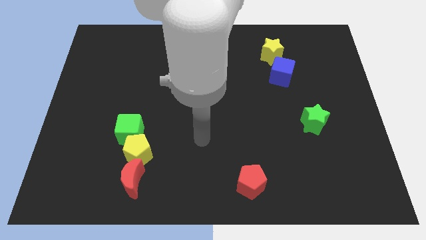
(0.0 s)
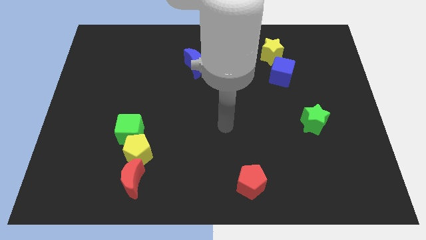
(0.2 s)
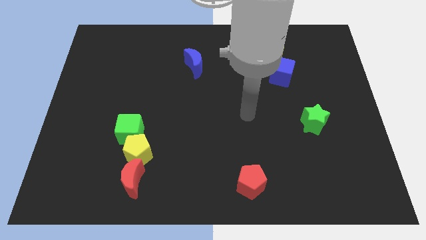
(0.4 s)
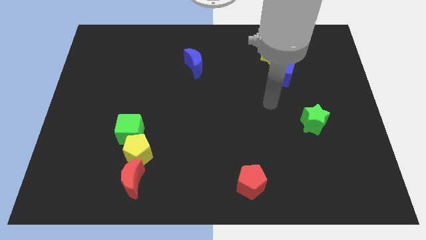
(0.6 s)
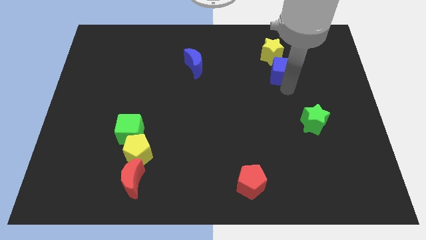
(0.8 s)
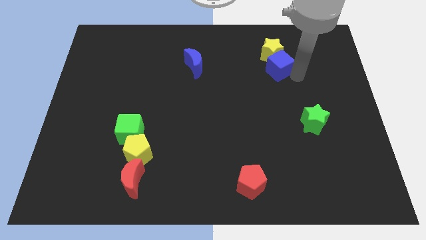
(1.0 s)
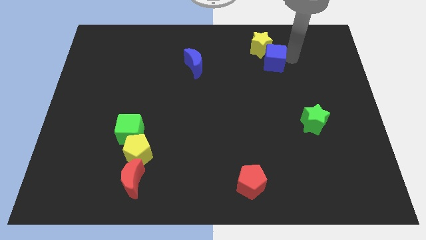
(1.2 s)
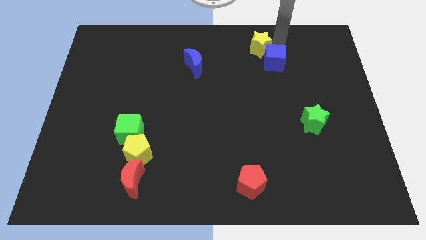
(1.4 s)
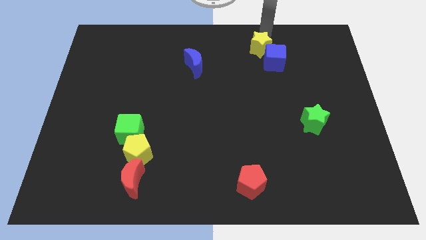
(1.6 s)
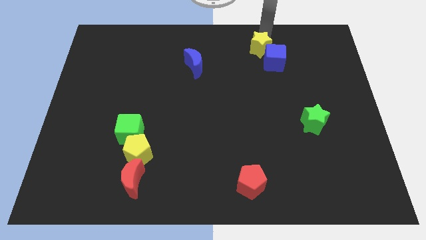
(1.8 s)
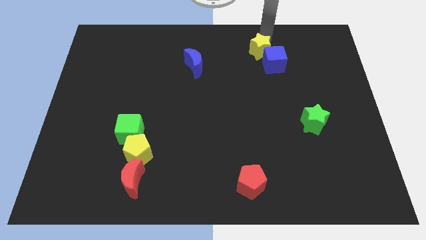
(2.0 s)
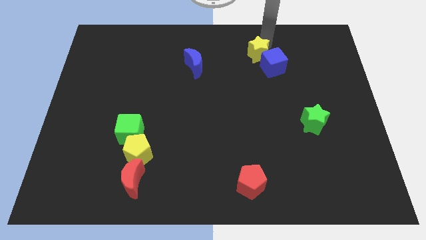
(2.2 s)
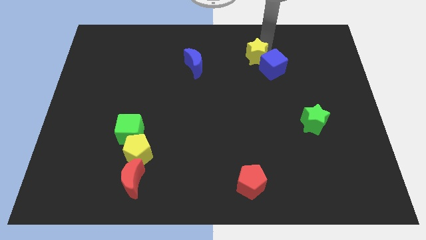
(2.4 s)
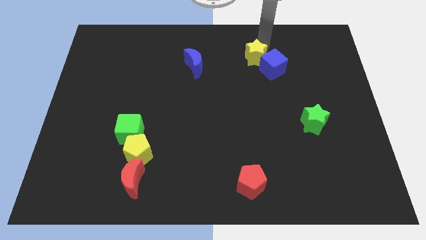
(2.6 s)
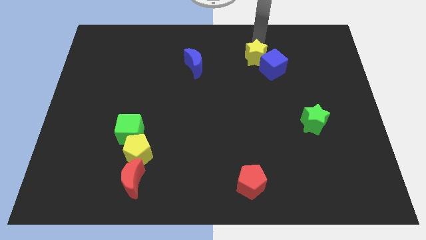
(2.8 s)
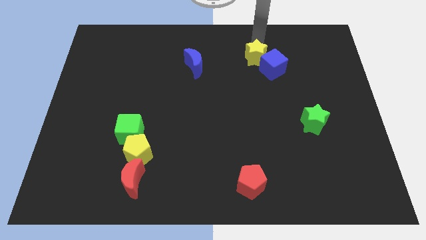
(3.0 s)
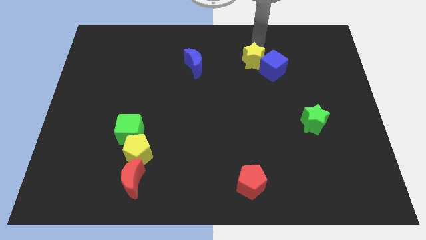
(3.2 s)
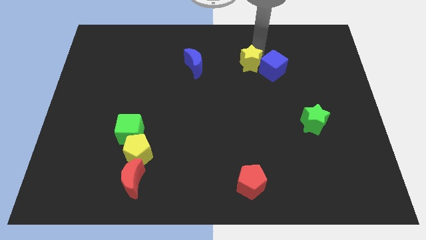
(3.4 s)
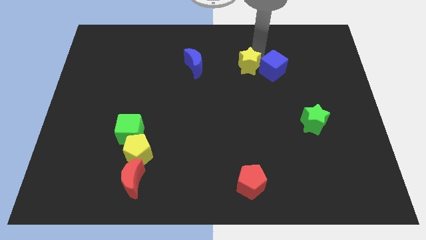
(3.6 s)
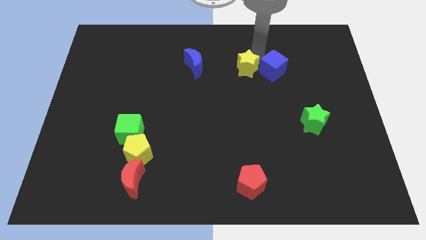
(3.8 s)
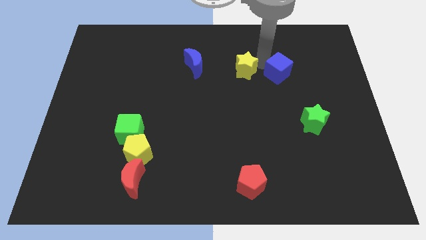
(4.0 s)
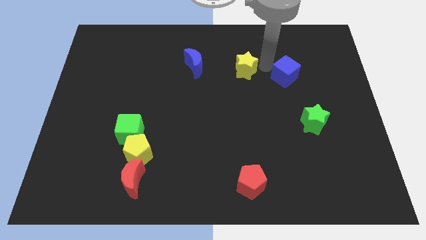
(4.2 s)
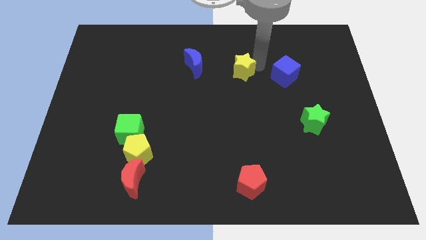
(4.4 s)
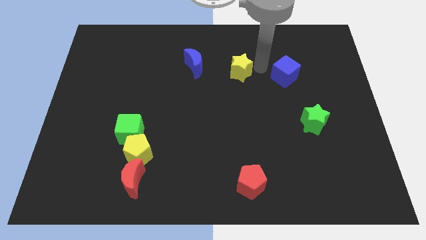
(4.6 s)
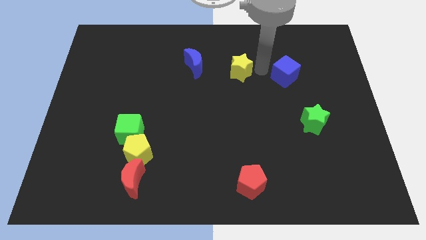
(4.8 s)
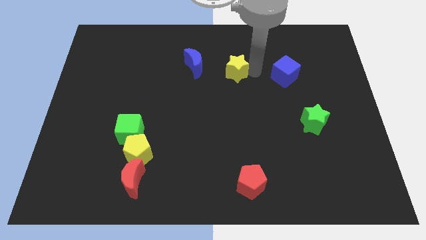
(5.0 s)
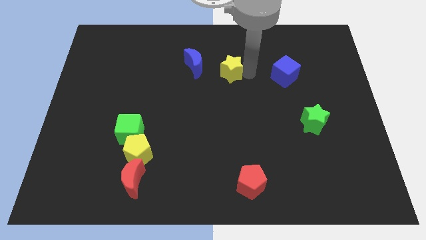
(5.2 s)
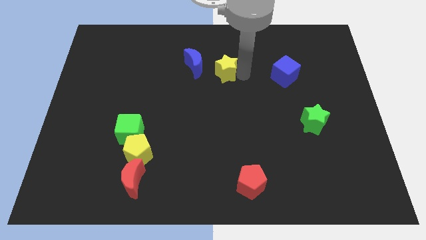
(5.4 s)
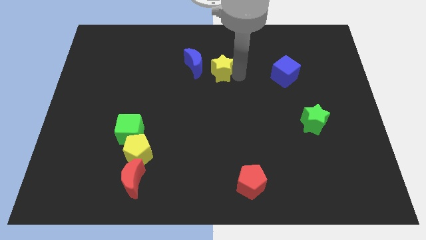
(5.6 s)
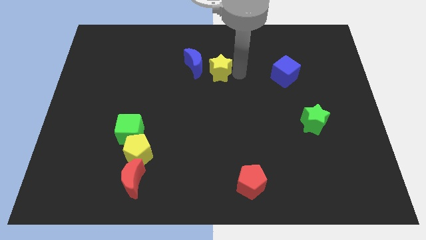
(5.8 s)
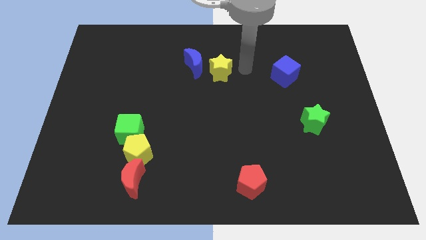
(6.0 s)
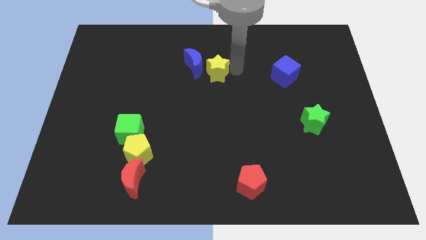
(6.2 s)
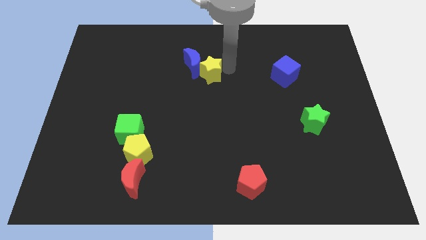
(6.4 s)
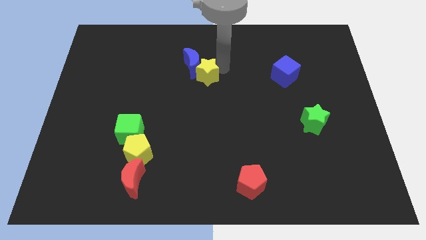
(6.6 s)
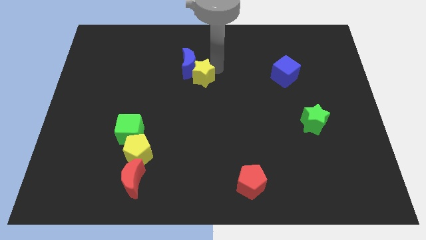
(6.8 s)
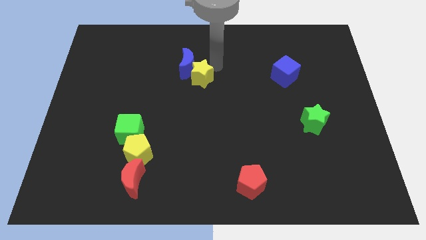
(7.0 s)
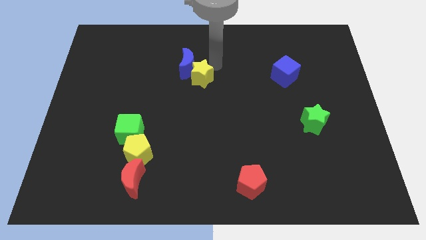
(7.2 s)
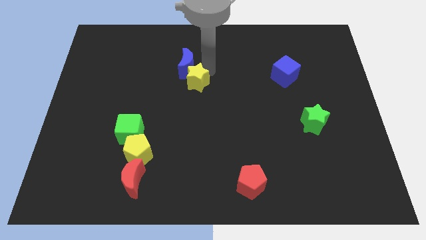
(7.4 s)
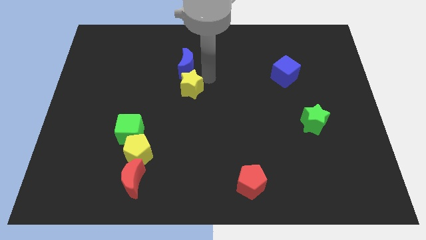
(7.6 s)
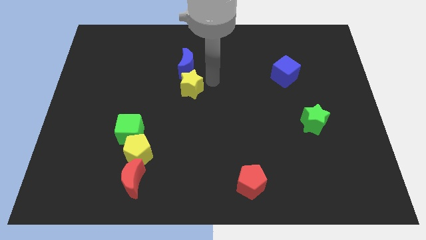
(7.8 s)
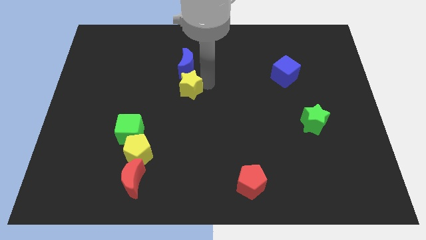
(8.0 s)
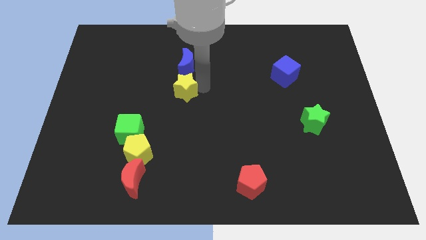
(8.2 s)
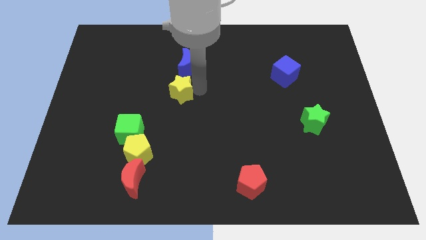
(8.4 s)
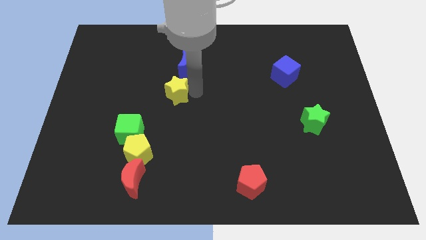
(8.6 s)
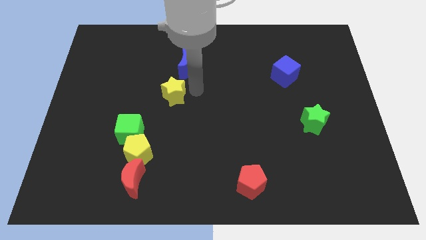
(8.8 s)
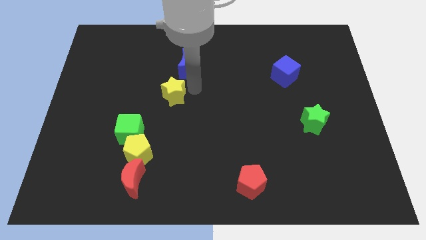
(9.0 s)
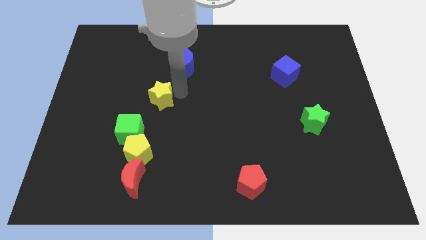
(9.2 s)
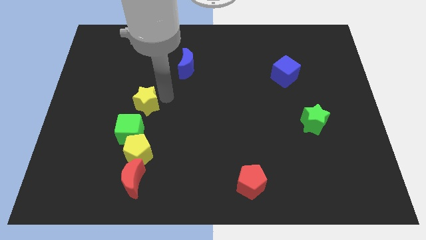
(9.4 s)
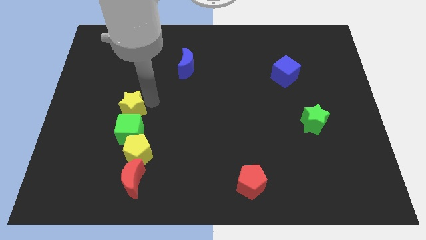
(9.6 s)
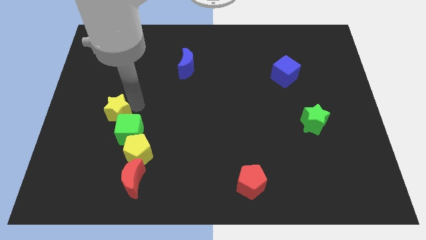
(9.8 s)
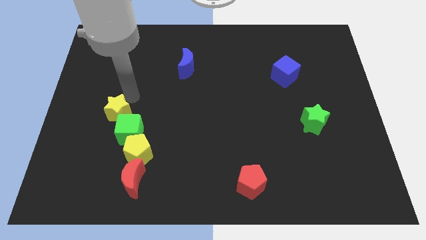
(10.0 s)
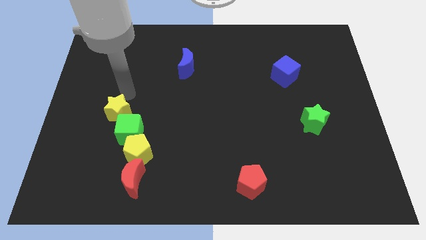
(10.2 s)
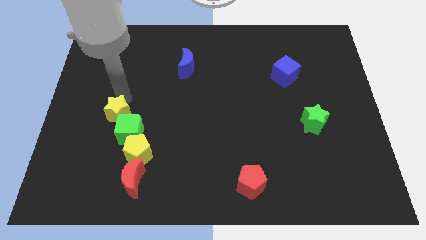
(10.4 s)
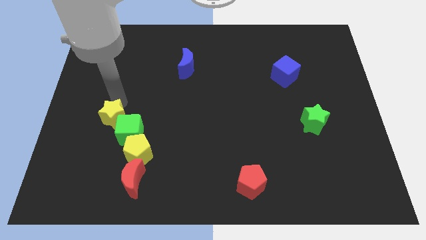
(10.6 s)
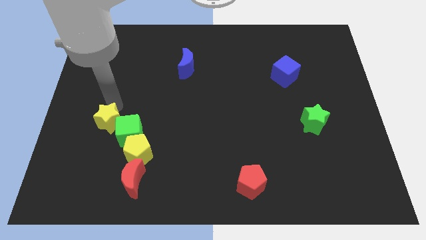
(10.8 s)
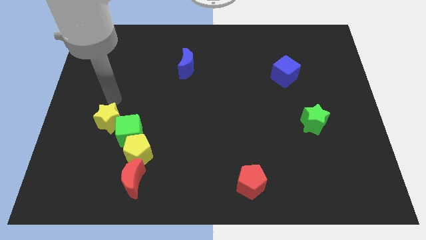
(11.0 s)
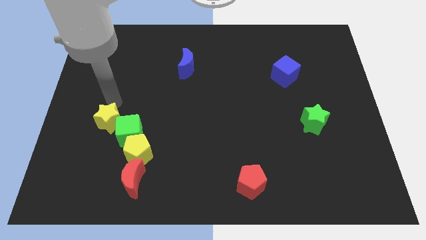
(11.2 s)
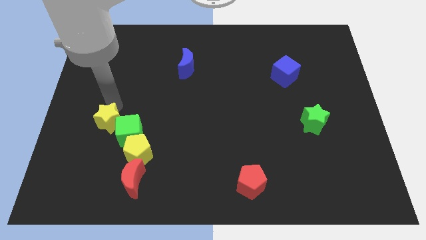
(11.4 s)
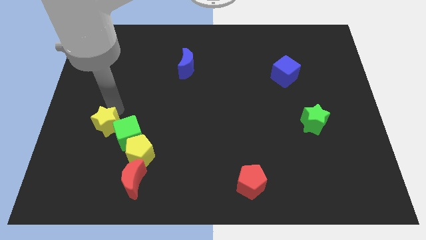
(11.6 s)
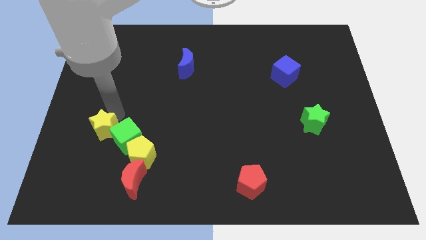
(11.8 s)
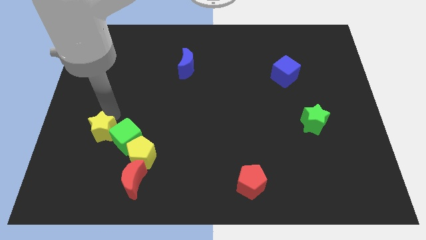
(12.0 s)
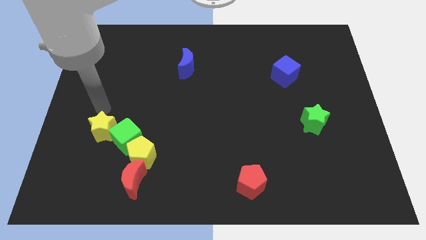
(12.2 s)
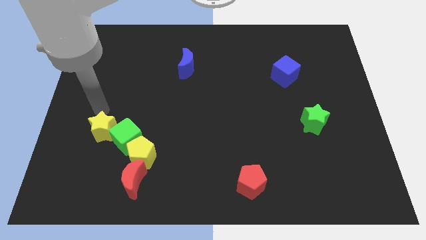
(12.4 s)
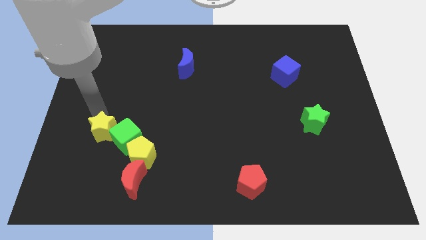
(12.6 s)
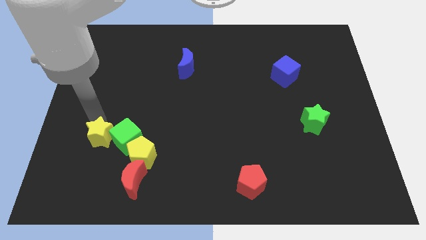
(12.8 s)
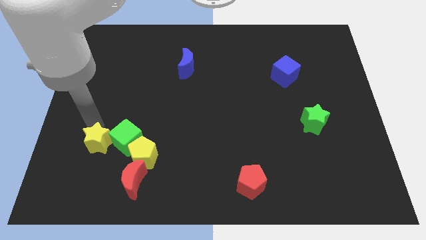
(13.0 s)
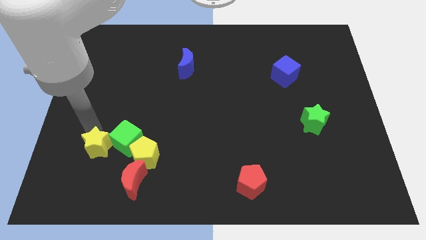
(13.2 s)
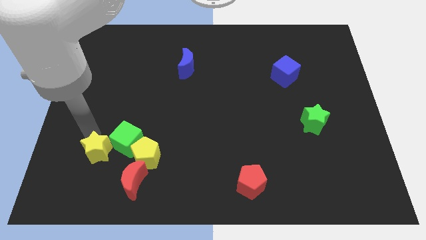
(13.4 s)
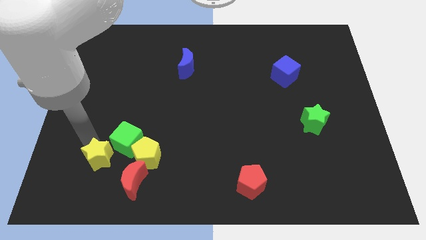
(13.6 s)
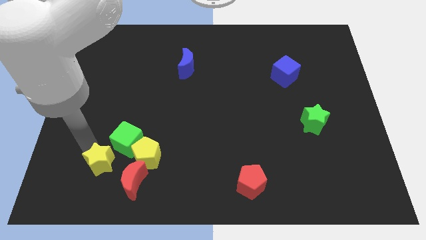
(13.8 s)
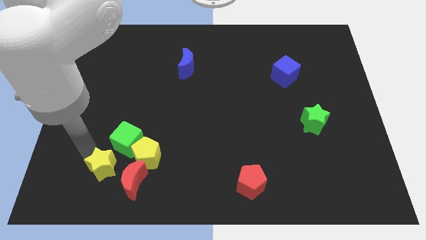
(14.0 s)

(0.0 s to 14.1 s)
put the yellow star to the bottom left of the yellow pentagon
